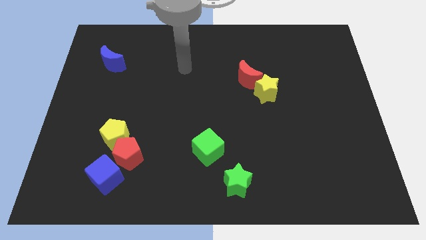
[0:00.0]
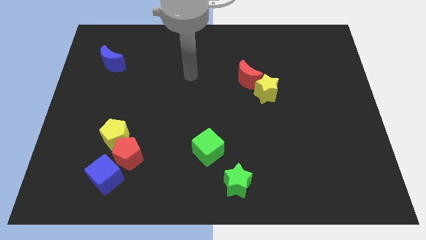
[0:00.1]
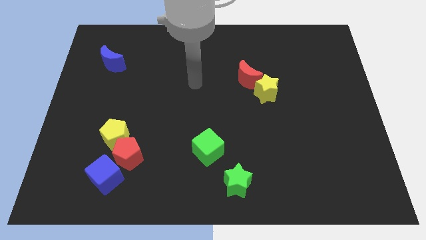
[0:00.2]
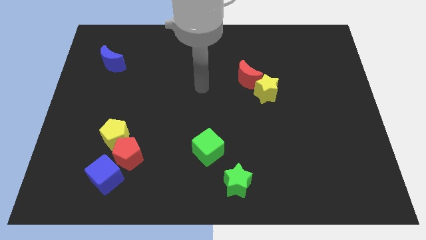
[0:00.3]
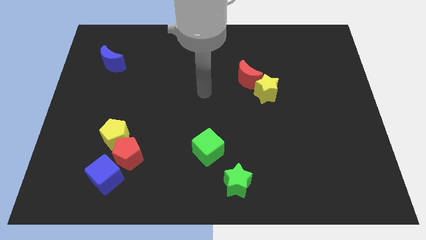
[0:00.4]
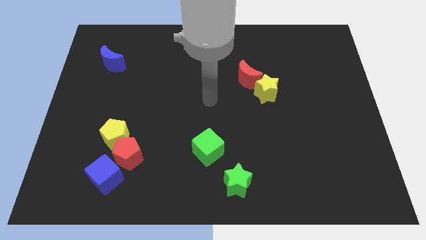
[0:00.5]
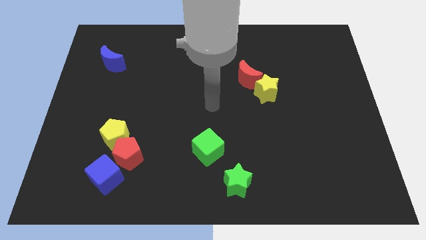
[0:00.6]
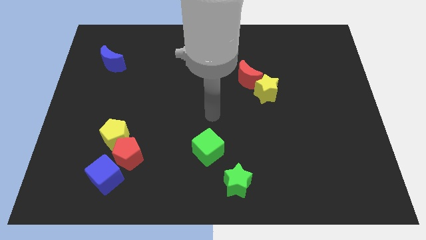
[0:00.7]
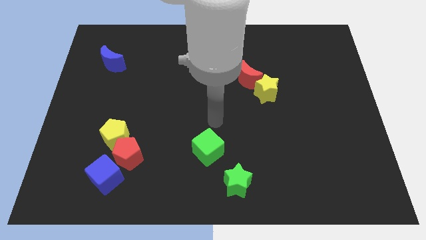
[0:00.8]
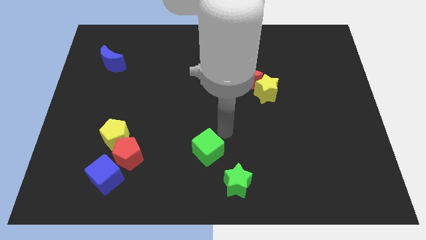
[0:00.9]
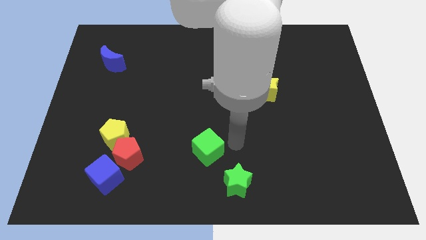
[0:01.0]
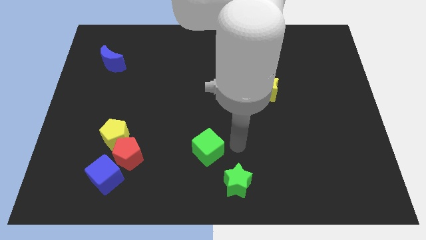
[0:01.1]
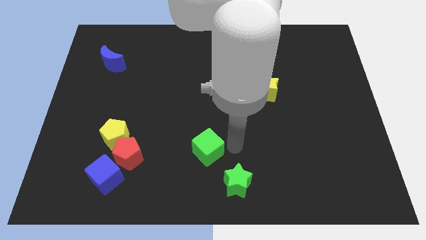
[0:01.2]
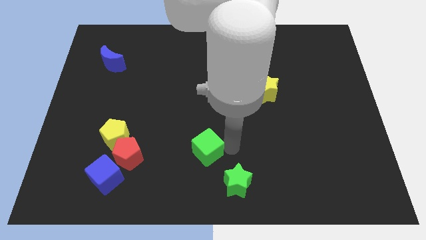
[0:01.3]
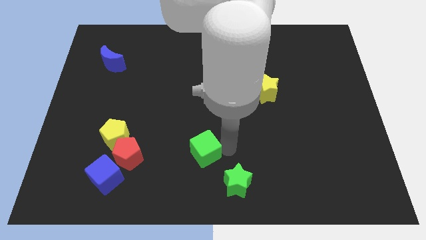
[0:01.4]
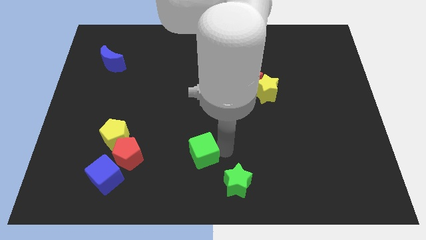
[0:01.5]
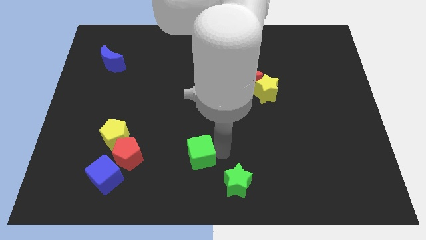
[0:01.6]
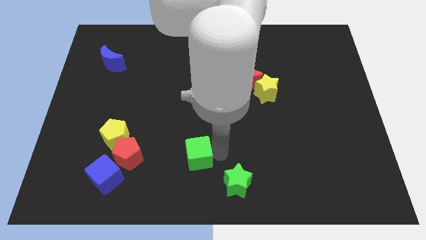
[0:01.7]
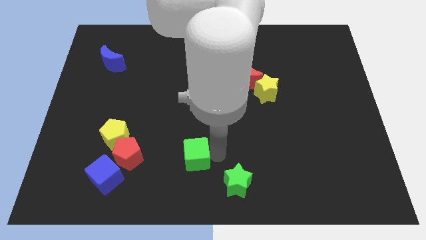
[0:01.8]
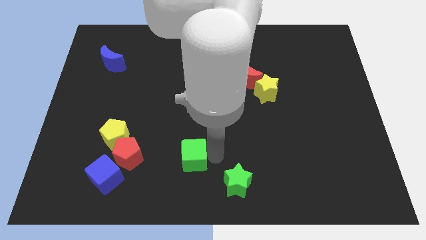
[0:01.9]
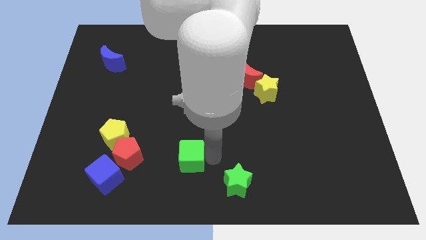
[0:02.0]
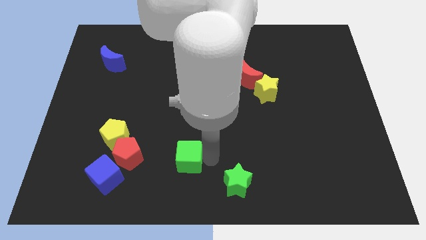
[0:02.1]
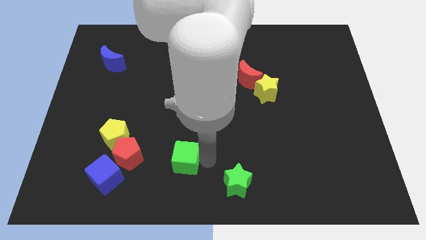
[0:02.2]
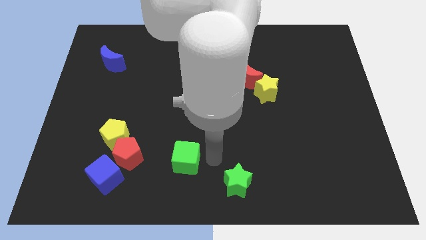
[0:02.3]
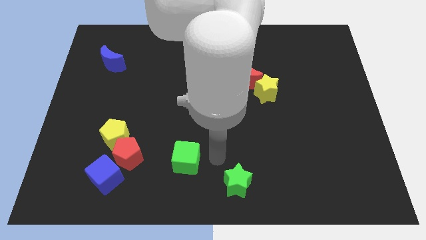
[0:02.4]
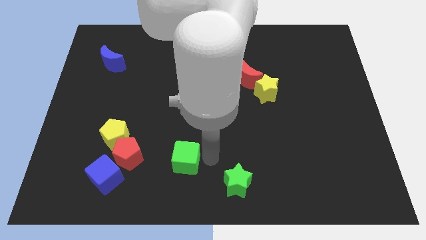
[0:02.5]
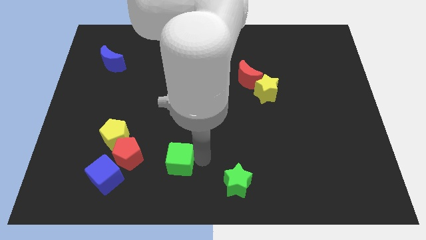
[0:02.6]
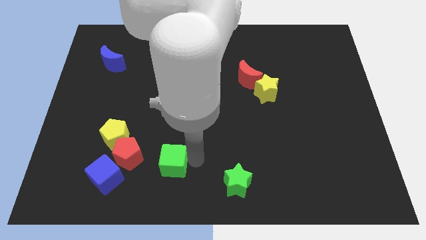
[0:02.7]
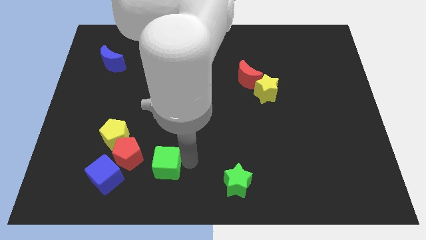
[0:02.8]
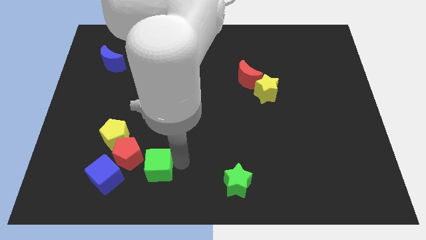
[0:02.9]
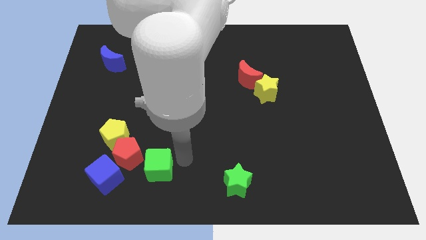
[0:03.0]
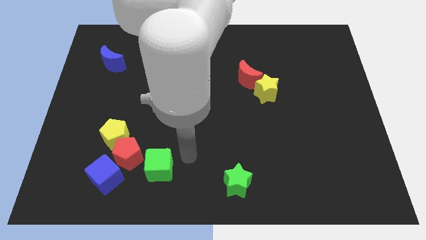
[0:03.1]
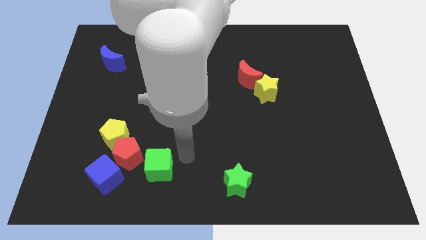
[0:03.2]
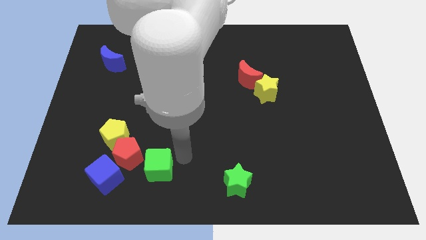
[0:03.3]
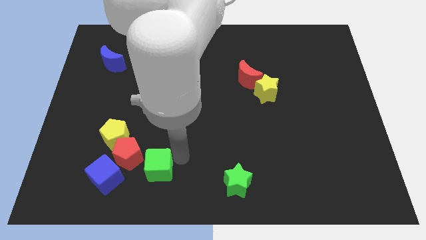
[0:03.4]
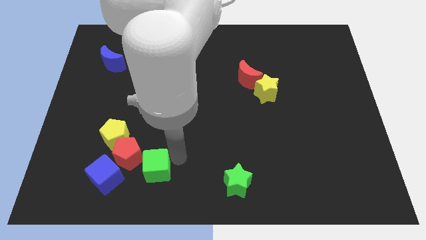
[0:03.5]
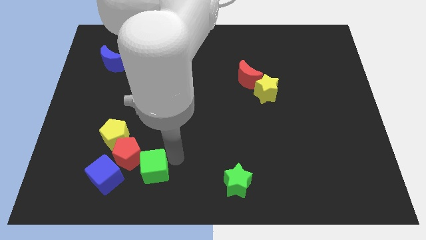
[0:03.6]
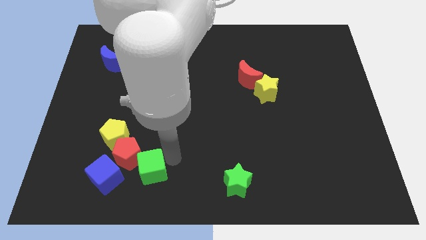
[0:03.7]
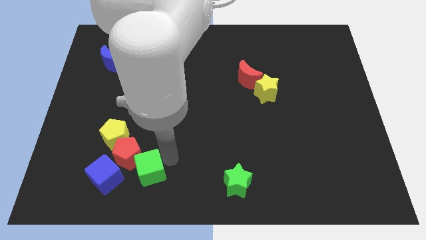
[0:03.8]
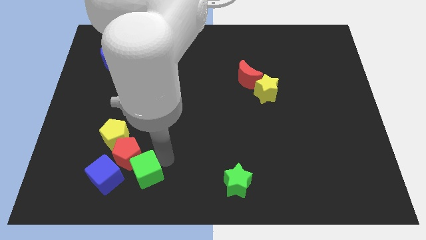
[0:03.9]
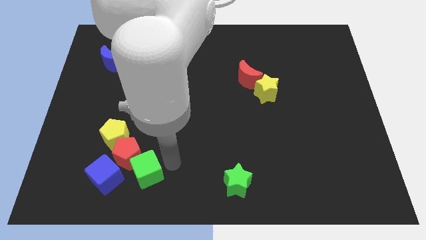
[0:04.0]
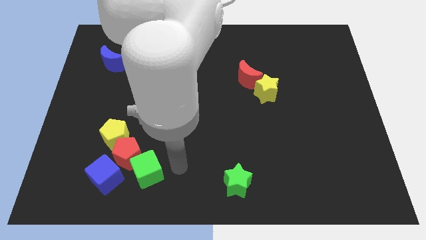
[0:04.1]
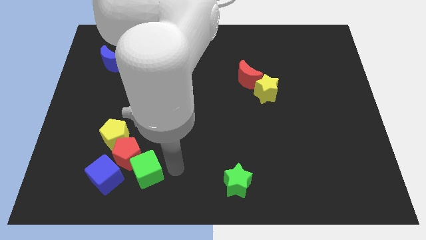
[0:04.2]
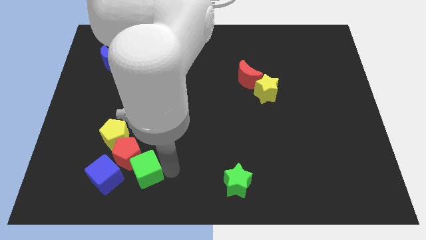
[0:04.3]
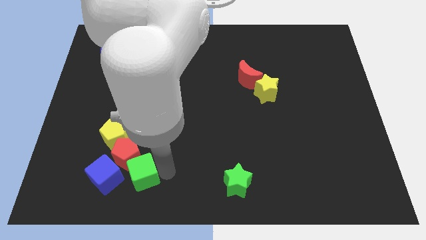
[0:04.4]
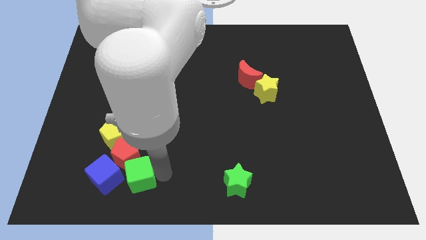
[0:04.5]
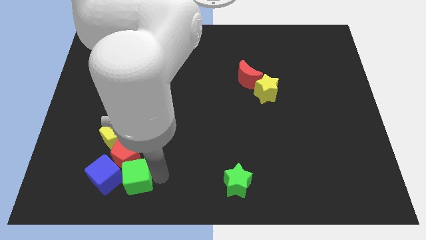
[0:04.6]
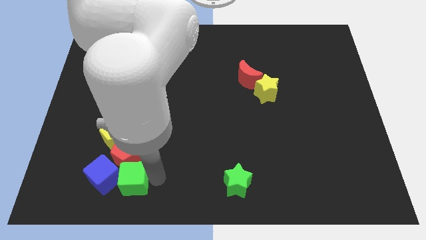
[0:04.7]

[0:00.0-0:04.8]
move the green cube next to the blue cube

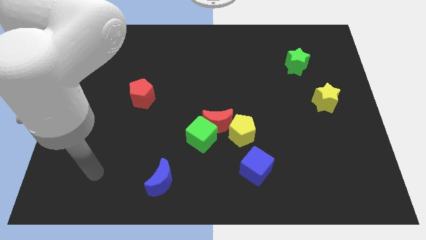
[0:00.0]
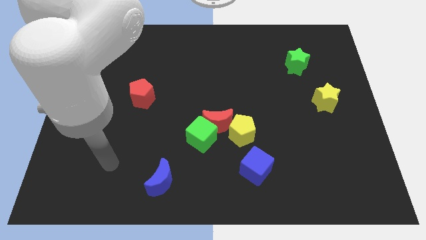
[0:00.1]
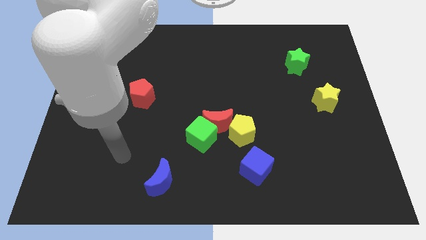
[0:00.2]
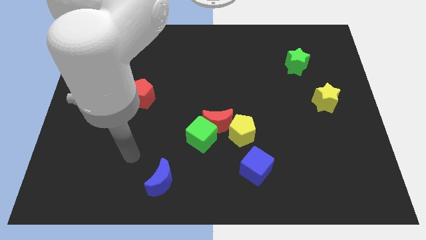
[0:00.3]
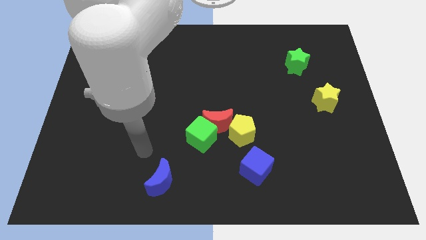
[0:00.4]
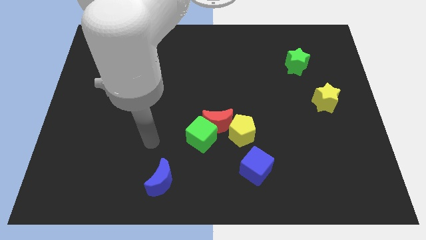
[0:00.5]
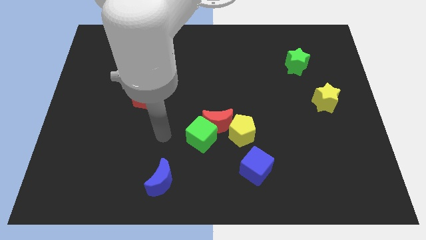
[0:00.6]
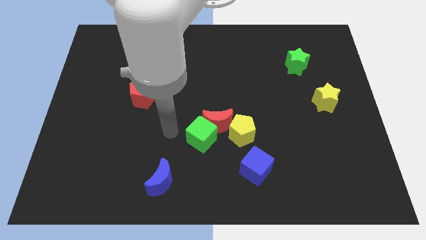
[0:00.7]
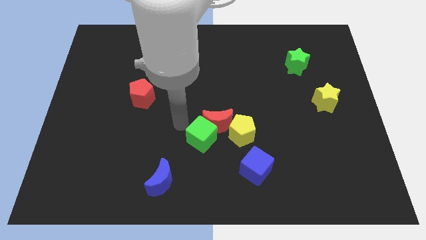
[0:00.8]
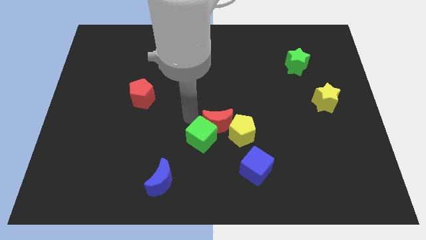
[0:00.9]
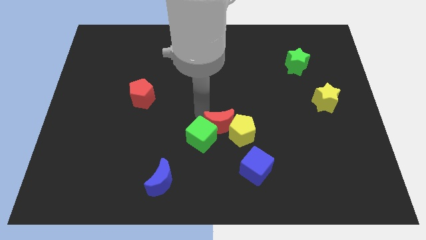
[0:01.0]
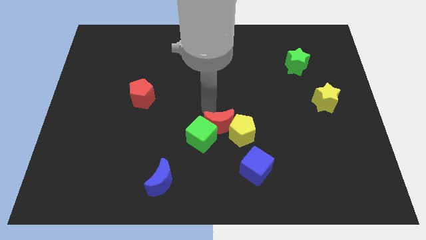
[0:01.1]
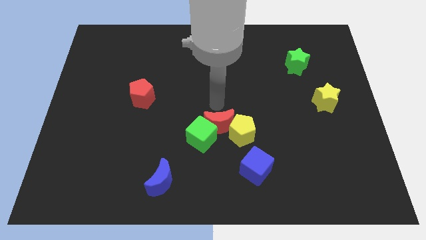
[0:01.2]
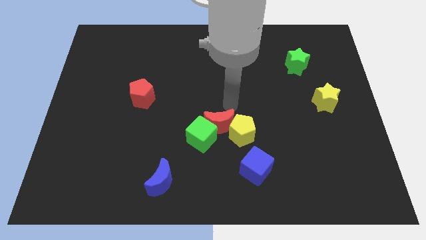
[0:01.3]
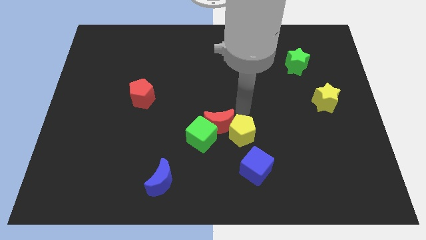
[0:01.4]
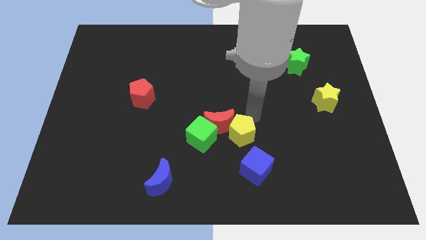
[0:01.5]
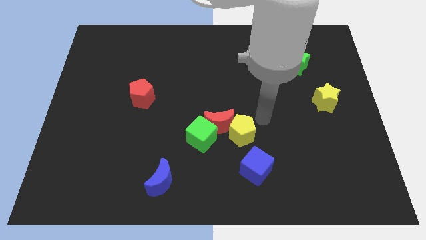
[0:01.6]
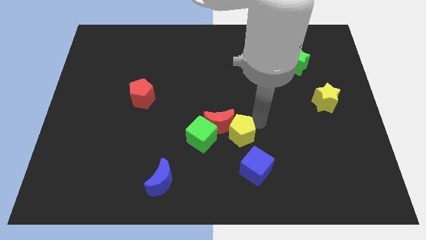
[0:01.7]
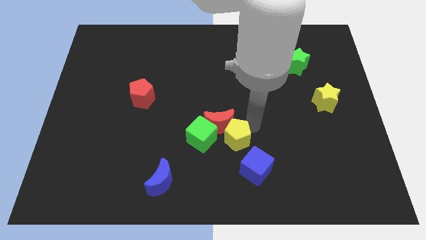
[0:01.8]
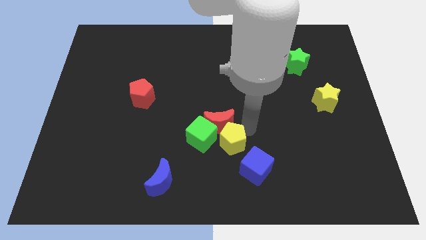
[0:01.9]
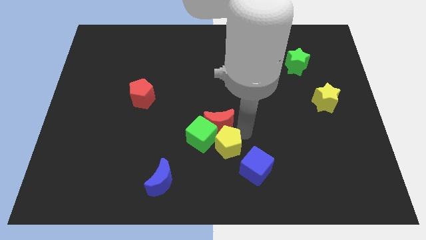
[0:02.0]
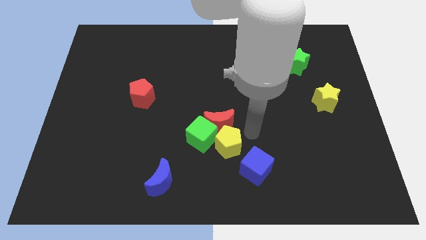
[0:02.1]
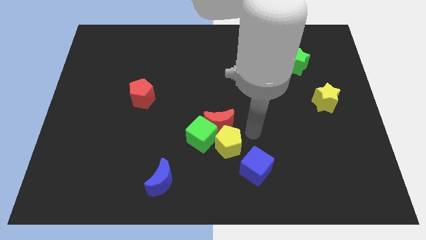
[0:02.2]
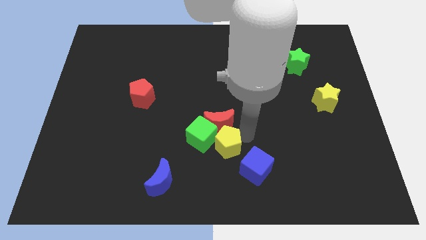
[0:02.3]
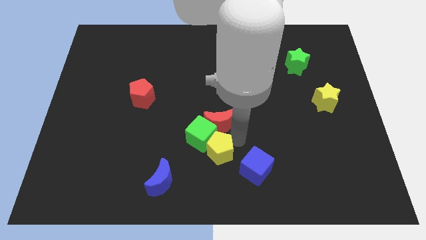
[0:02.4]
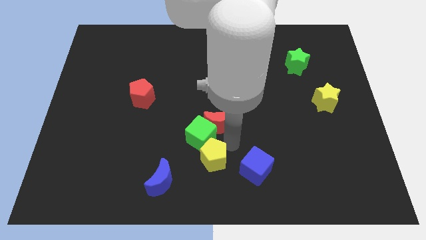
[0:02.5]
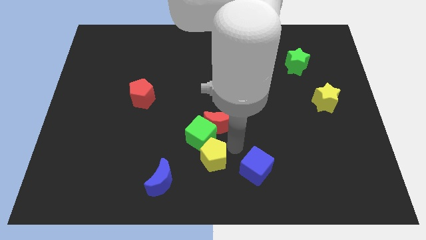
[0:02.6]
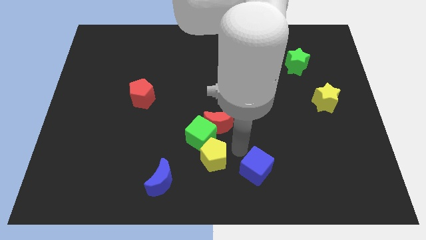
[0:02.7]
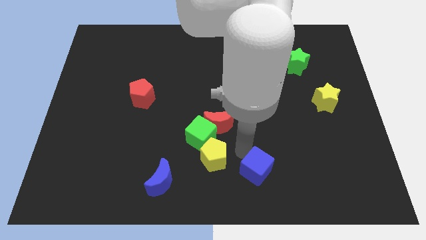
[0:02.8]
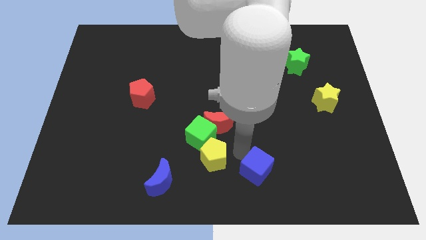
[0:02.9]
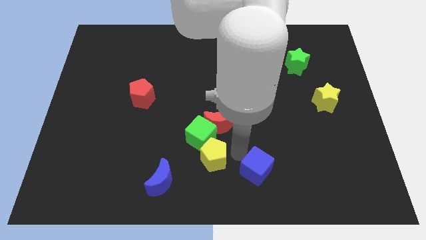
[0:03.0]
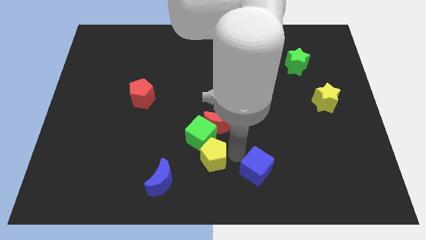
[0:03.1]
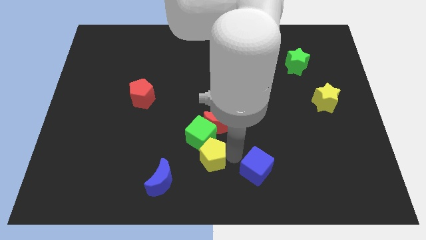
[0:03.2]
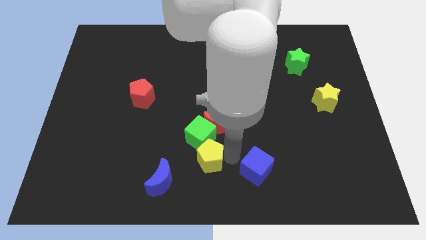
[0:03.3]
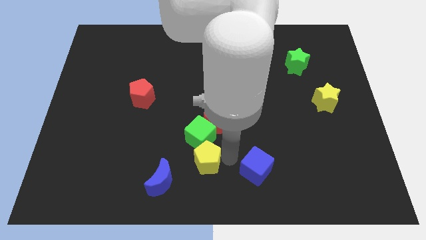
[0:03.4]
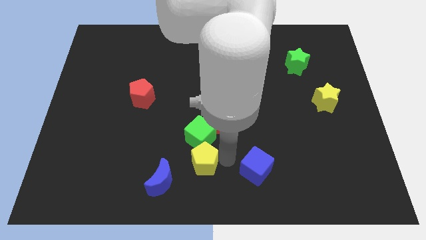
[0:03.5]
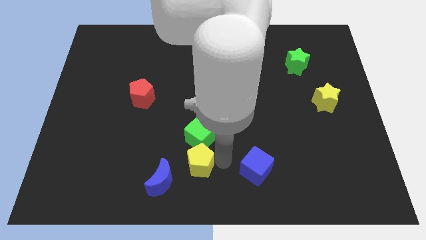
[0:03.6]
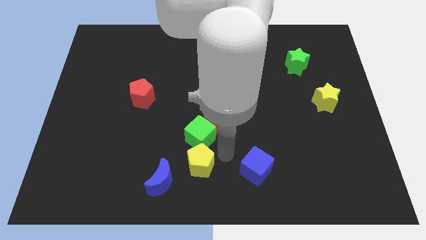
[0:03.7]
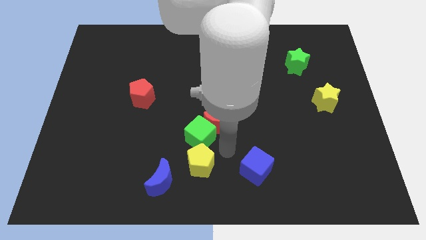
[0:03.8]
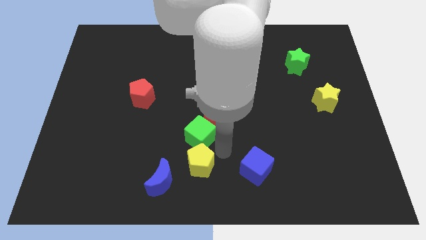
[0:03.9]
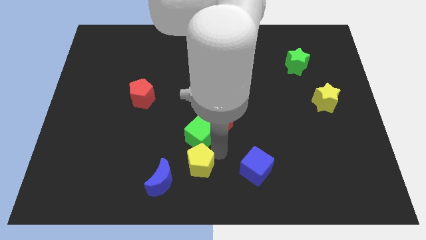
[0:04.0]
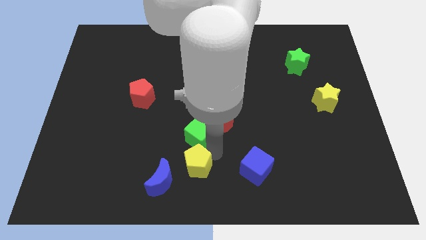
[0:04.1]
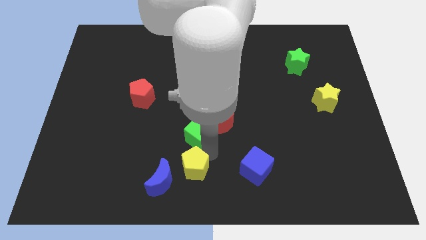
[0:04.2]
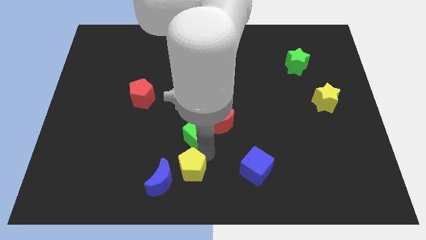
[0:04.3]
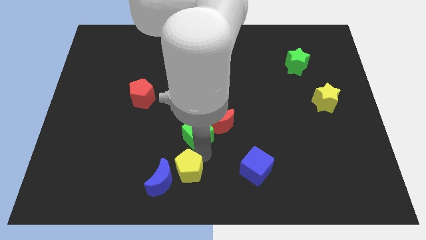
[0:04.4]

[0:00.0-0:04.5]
move the yellow pentagon towards the blue moon
